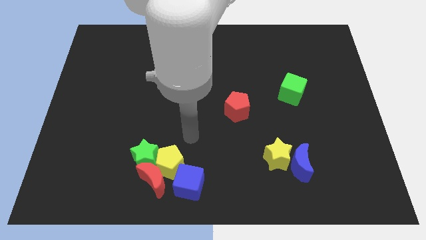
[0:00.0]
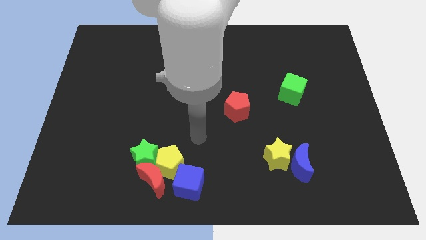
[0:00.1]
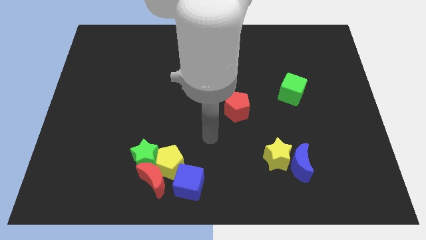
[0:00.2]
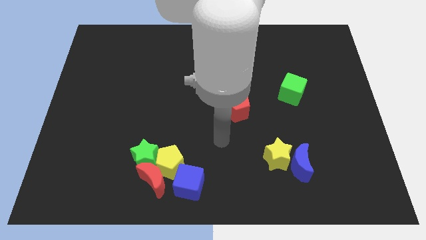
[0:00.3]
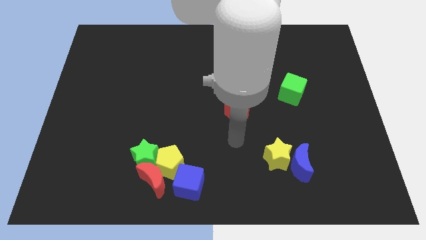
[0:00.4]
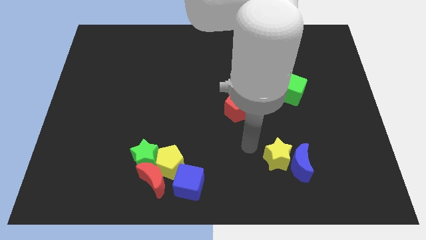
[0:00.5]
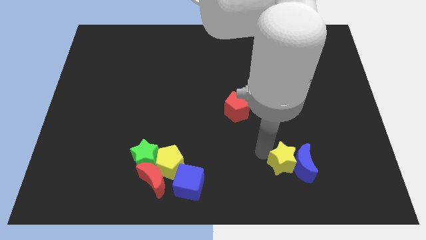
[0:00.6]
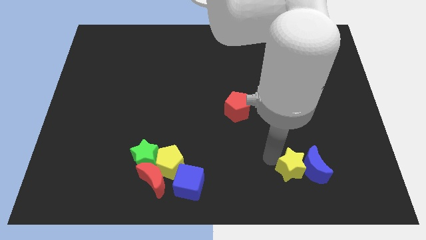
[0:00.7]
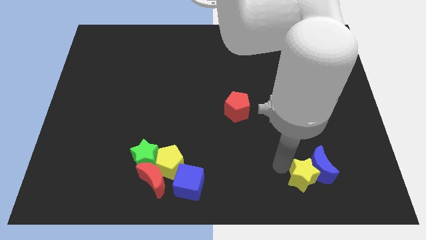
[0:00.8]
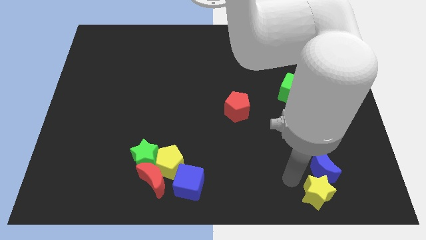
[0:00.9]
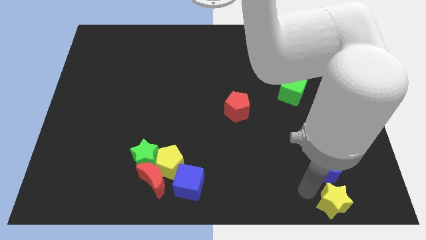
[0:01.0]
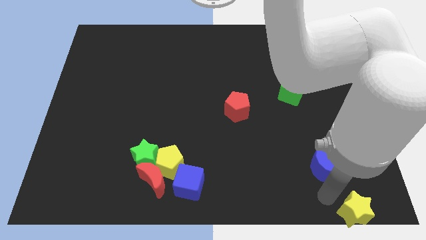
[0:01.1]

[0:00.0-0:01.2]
separate the blue moon from the yellow star

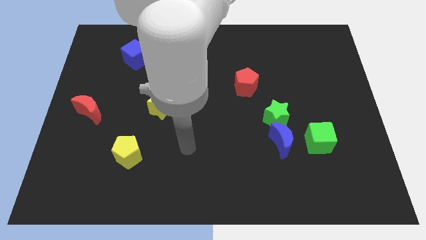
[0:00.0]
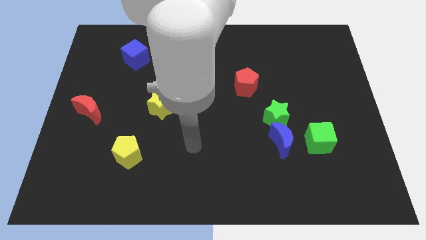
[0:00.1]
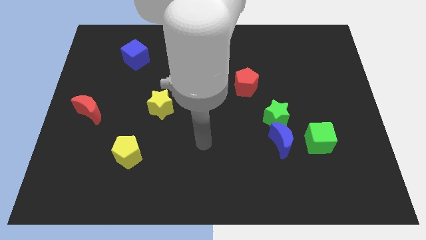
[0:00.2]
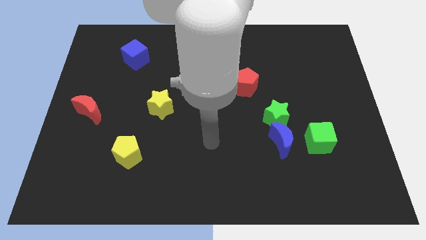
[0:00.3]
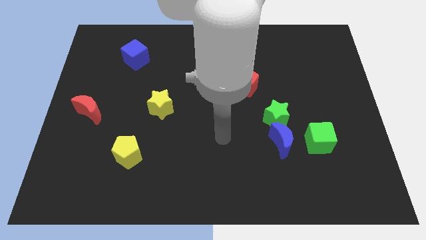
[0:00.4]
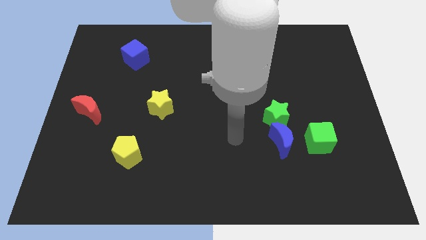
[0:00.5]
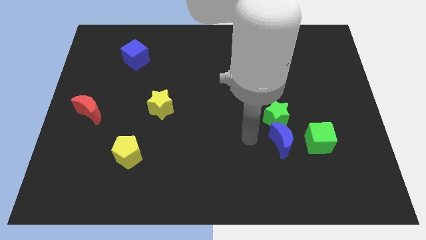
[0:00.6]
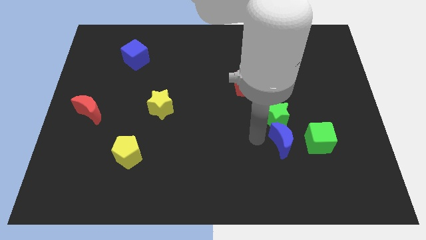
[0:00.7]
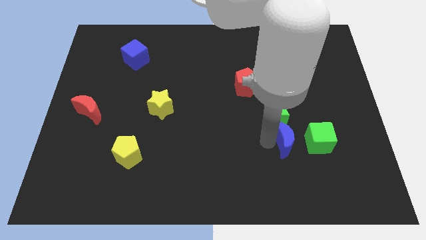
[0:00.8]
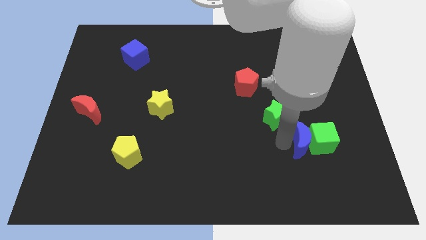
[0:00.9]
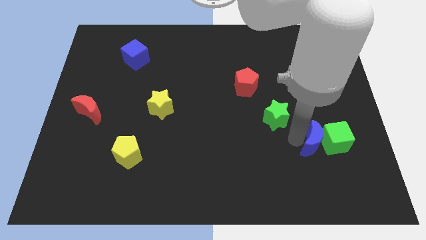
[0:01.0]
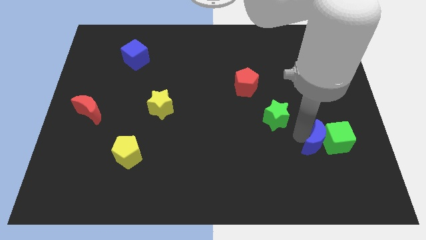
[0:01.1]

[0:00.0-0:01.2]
separate the green star from the blue moon

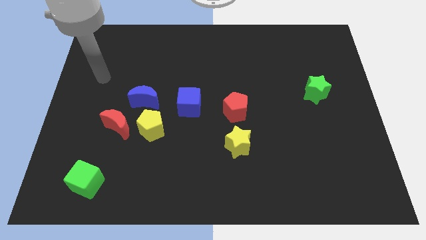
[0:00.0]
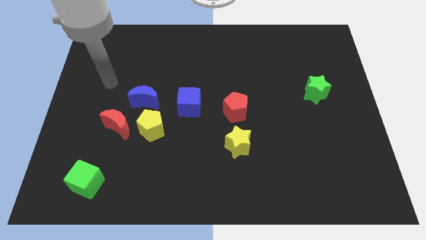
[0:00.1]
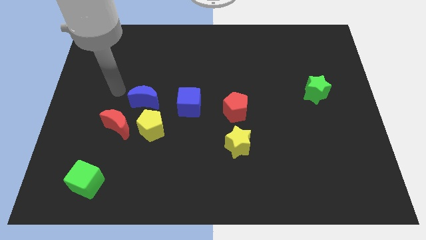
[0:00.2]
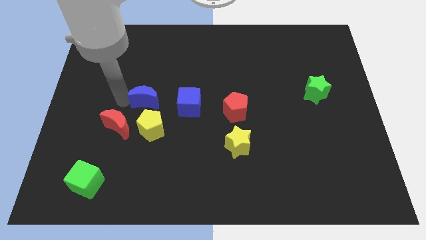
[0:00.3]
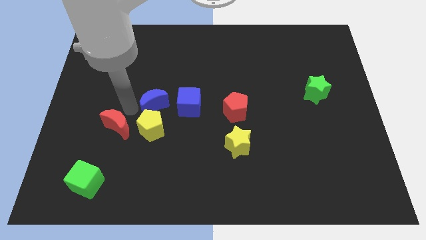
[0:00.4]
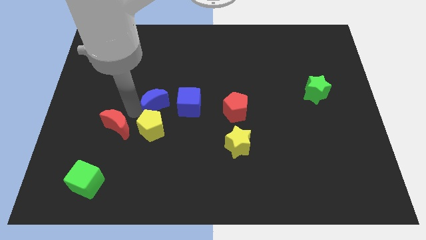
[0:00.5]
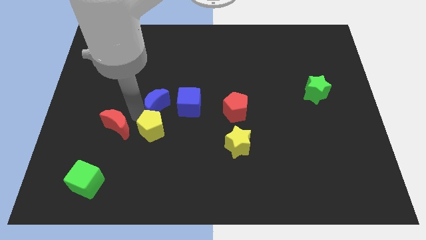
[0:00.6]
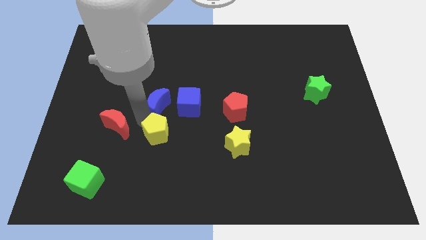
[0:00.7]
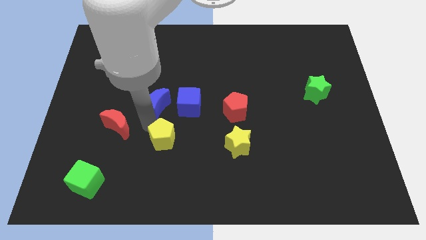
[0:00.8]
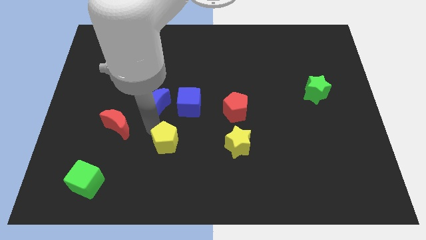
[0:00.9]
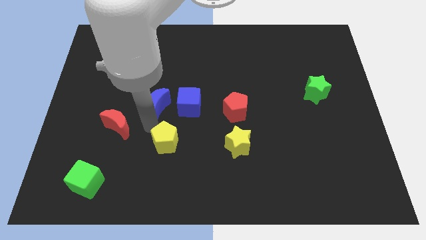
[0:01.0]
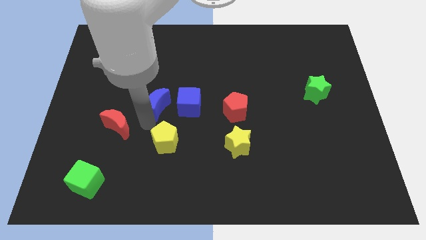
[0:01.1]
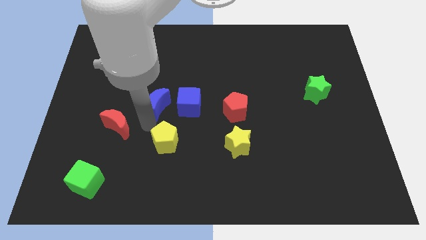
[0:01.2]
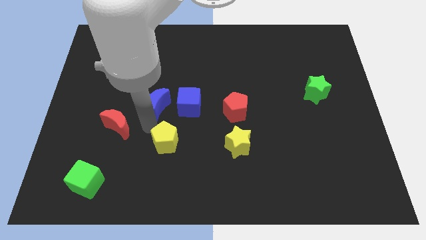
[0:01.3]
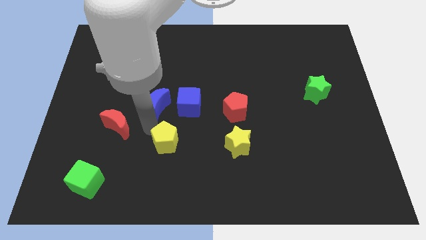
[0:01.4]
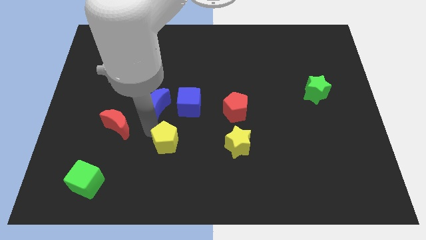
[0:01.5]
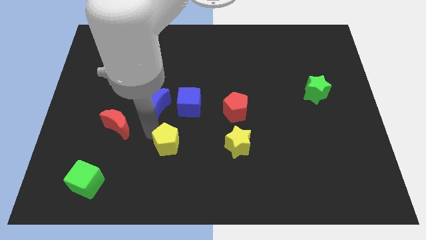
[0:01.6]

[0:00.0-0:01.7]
move the yellow pentagon away from the red moon and blue moon

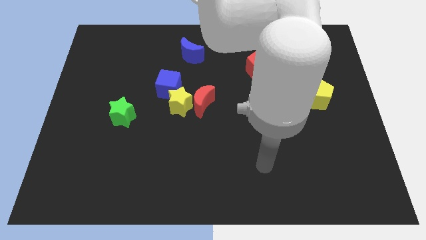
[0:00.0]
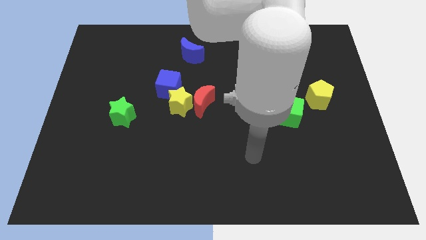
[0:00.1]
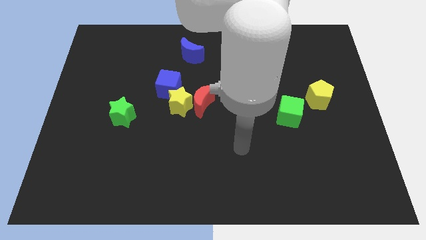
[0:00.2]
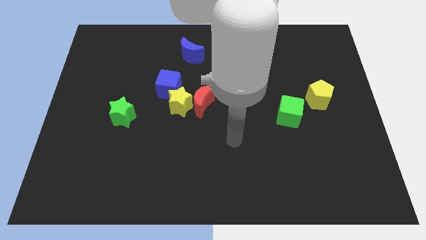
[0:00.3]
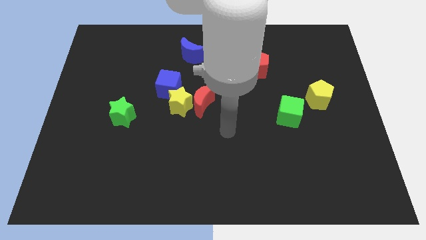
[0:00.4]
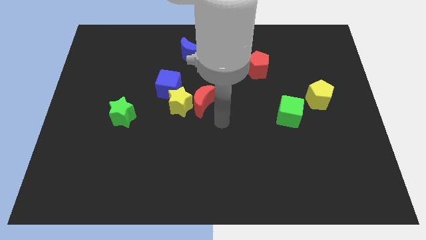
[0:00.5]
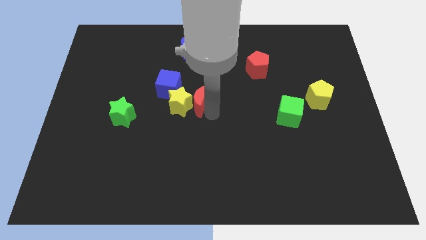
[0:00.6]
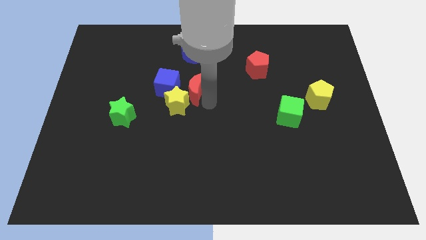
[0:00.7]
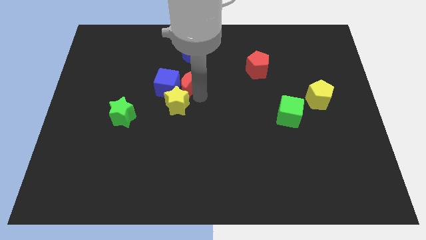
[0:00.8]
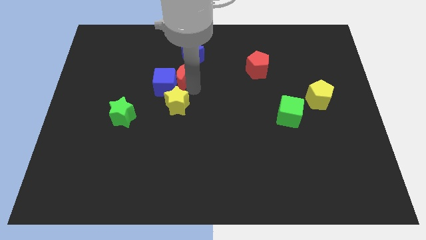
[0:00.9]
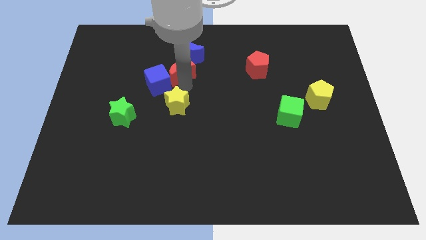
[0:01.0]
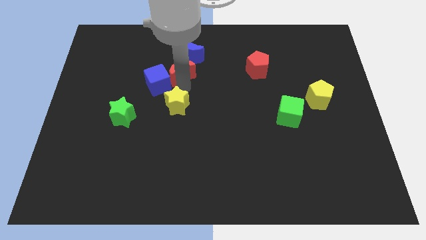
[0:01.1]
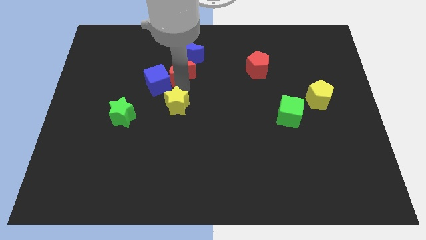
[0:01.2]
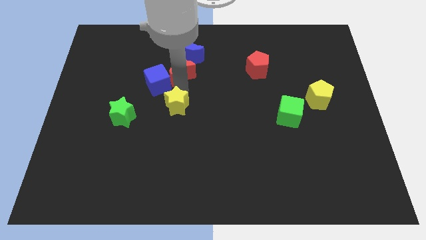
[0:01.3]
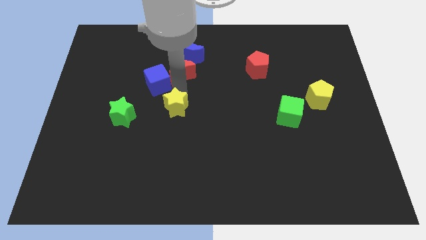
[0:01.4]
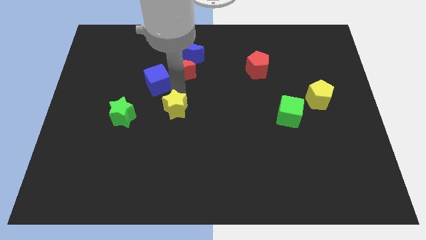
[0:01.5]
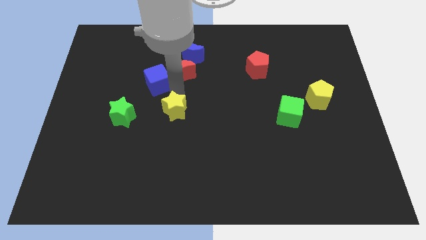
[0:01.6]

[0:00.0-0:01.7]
pull the yellow star apart from the red moon and blue cube

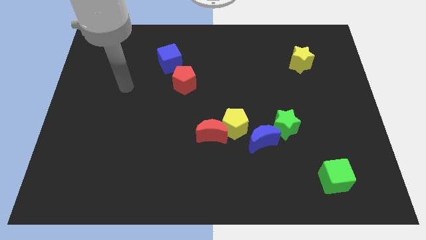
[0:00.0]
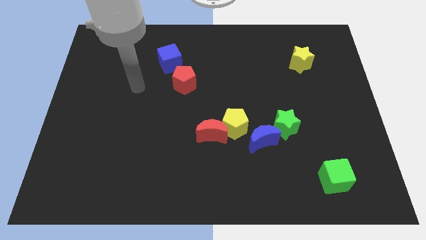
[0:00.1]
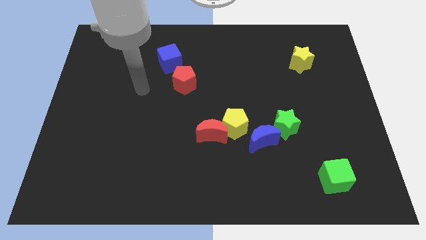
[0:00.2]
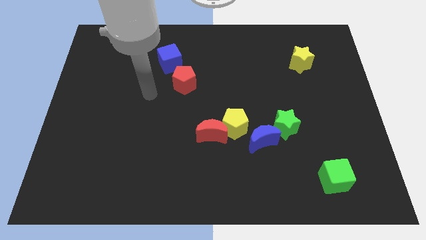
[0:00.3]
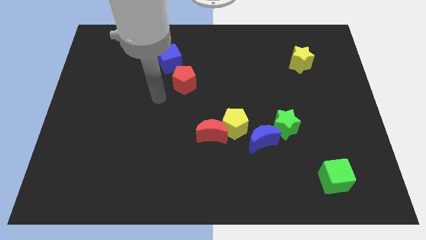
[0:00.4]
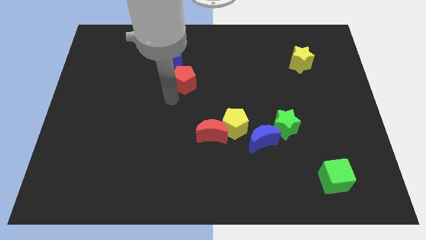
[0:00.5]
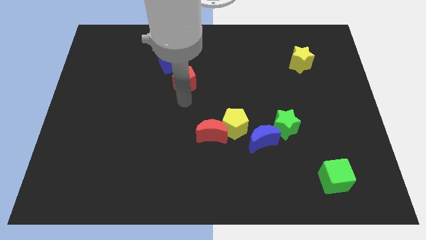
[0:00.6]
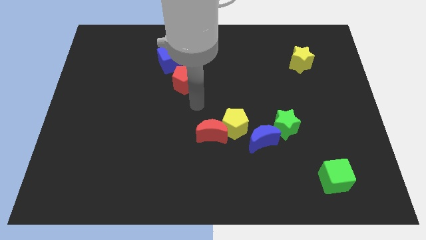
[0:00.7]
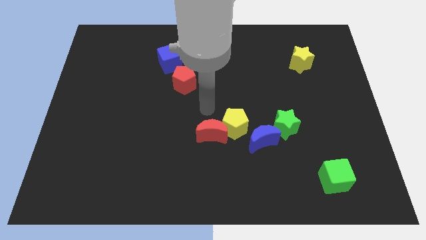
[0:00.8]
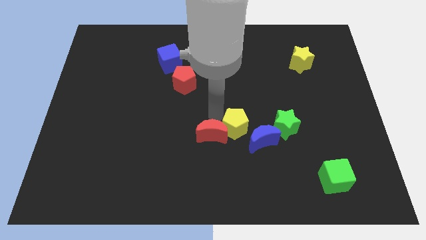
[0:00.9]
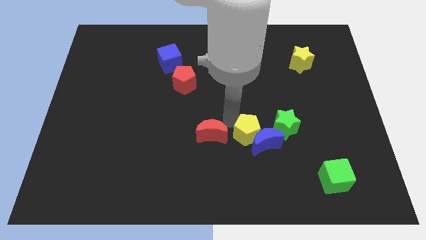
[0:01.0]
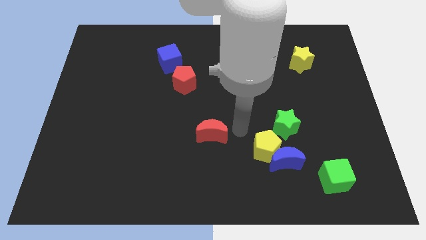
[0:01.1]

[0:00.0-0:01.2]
pull the red moon apart from the yellow pentagon

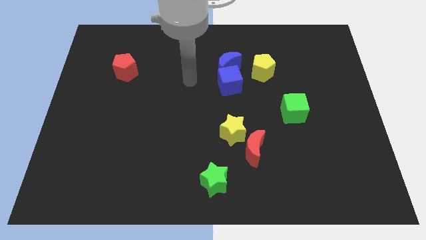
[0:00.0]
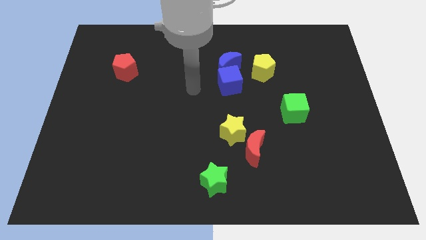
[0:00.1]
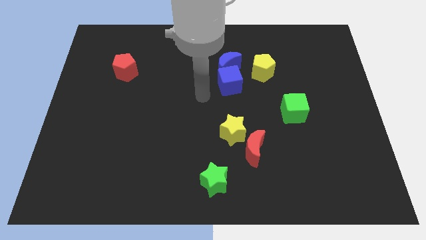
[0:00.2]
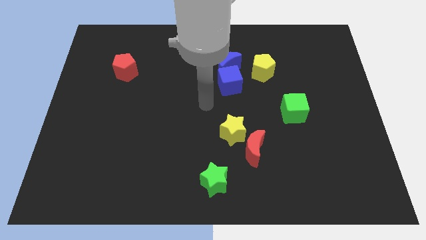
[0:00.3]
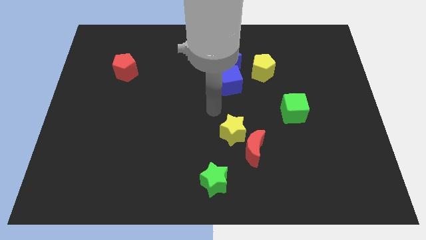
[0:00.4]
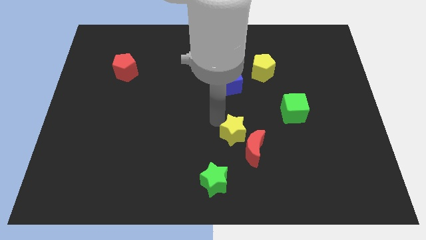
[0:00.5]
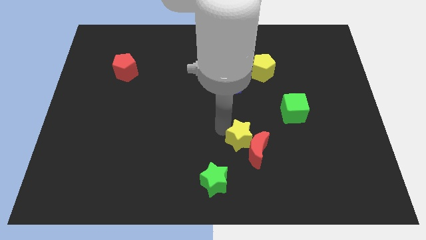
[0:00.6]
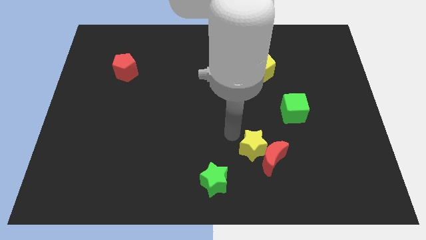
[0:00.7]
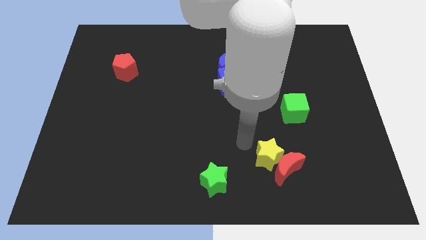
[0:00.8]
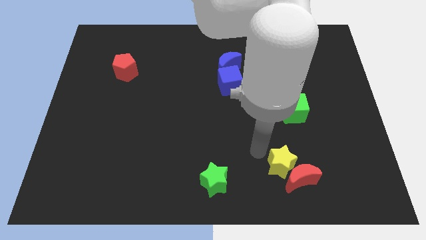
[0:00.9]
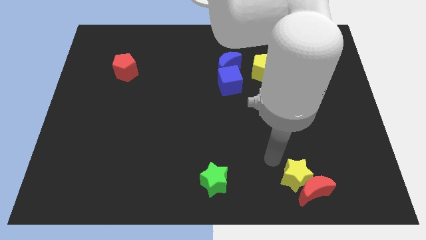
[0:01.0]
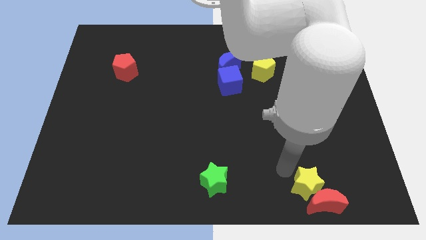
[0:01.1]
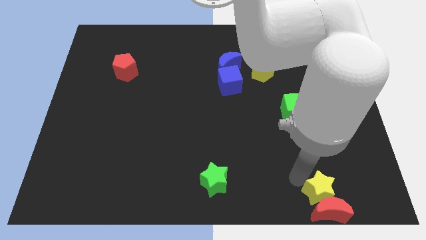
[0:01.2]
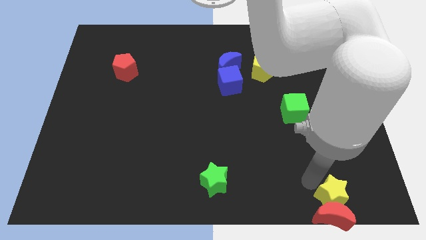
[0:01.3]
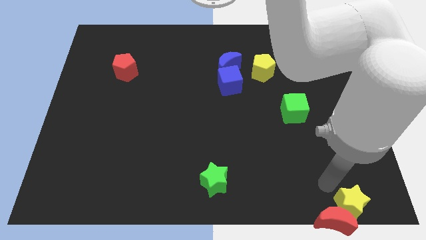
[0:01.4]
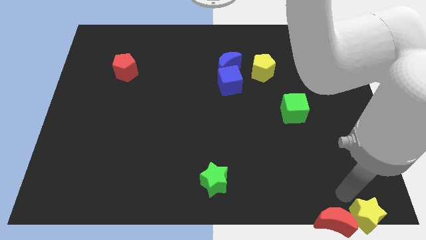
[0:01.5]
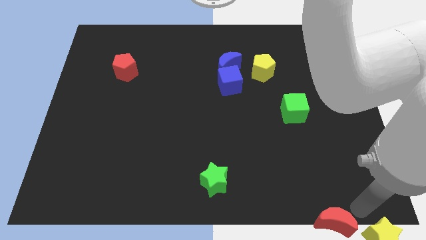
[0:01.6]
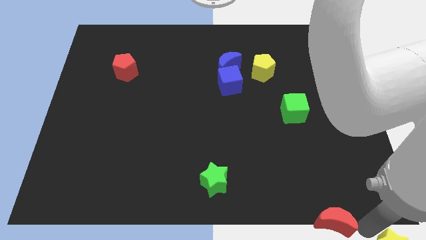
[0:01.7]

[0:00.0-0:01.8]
separate the red moon from the yellow star

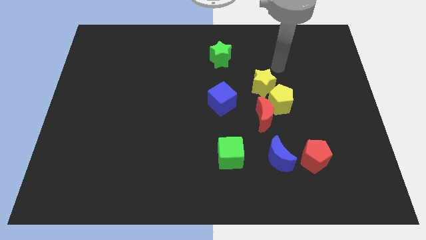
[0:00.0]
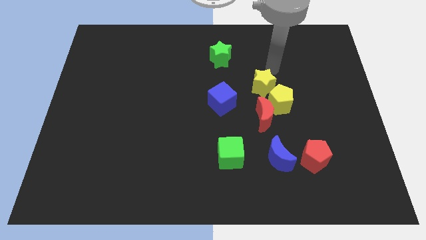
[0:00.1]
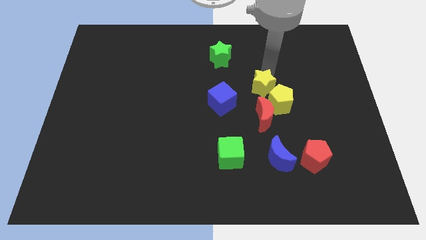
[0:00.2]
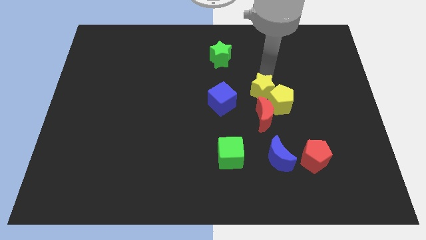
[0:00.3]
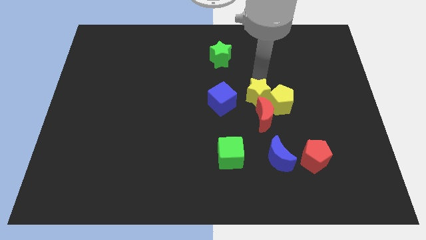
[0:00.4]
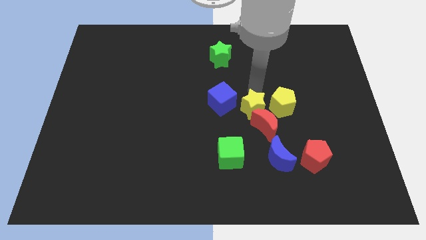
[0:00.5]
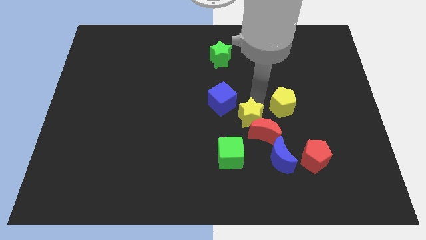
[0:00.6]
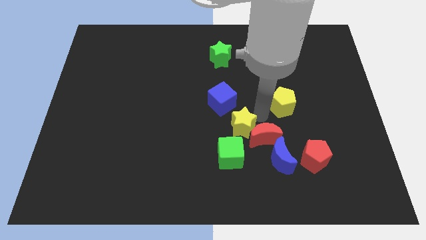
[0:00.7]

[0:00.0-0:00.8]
separate the yellow pentagon from the red moon and yellow star
